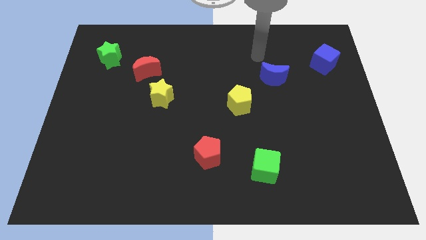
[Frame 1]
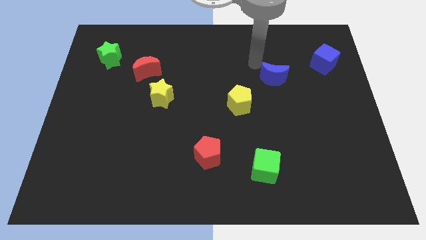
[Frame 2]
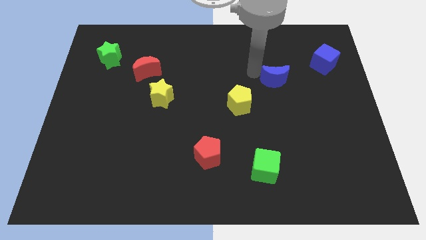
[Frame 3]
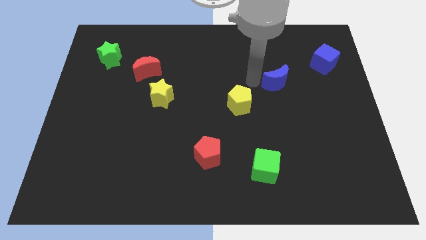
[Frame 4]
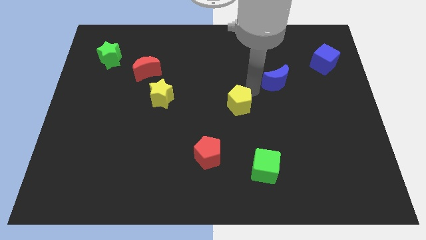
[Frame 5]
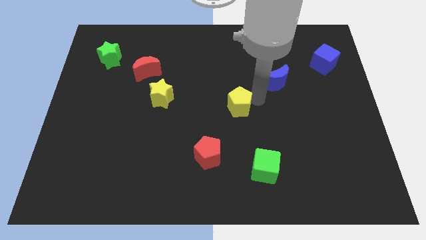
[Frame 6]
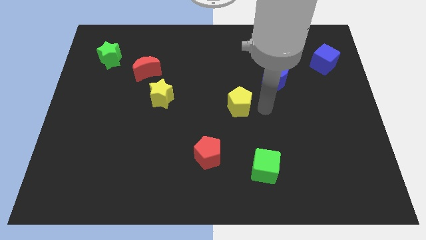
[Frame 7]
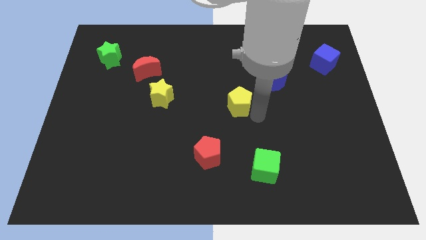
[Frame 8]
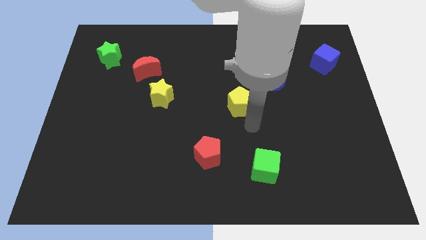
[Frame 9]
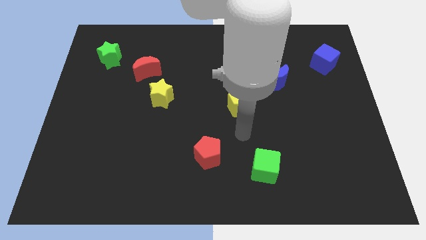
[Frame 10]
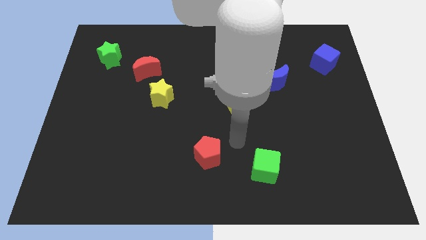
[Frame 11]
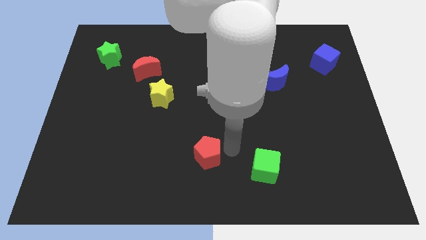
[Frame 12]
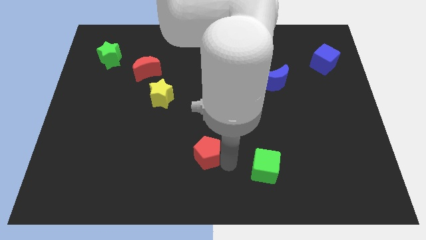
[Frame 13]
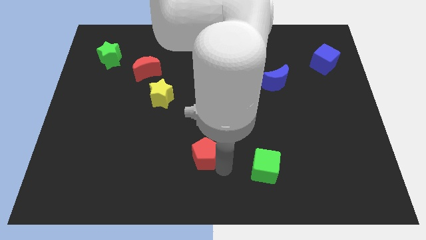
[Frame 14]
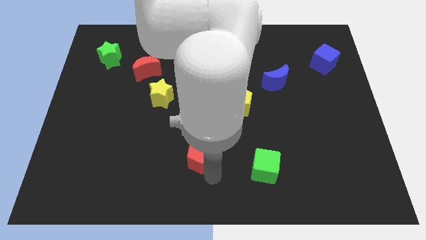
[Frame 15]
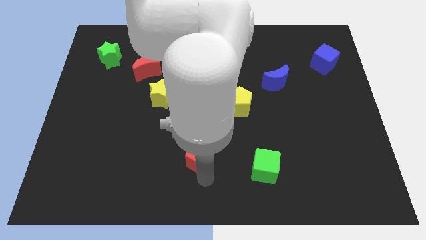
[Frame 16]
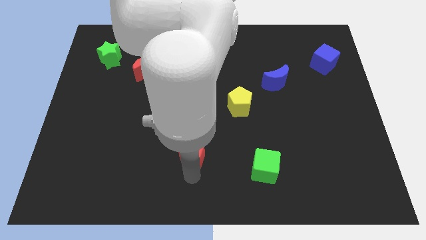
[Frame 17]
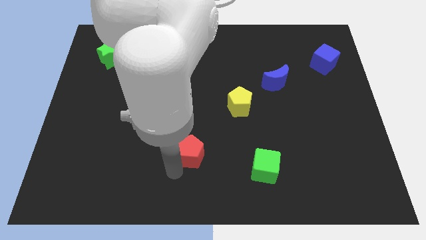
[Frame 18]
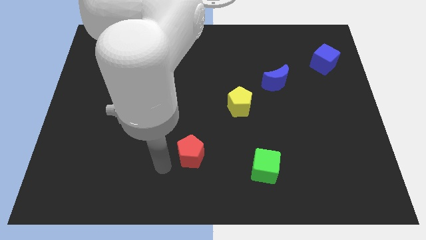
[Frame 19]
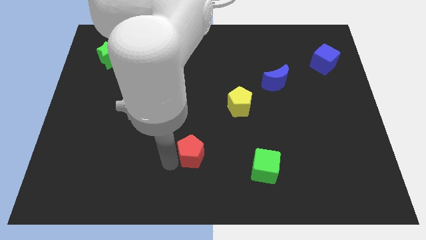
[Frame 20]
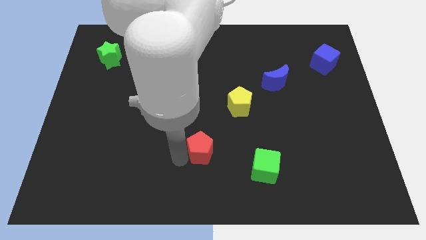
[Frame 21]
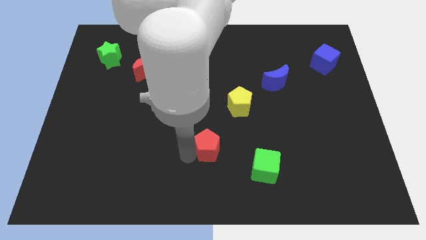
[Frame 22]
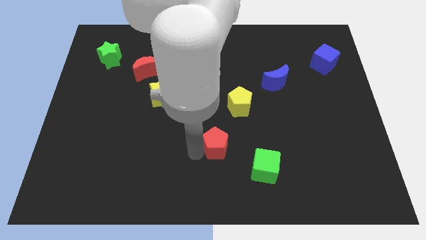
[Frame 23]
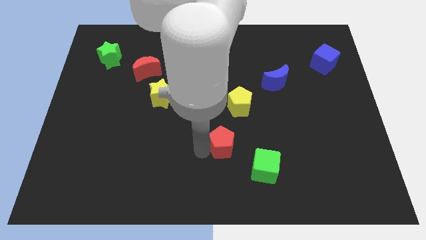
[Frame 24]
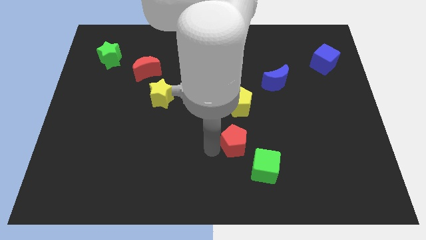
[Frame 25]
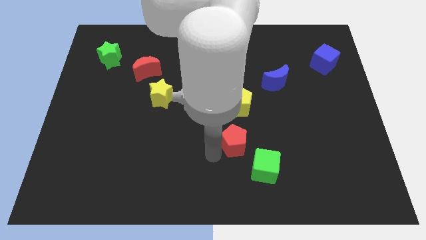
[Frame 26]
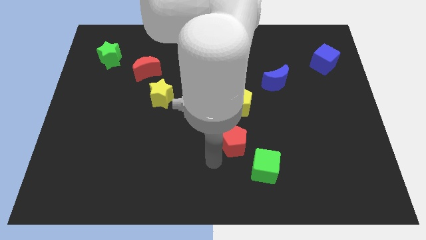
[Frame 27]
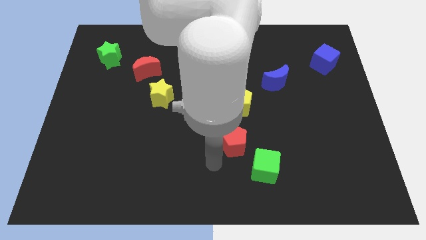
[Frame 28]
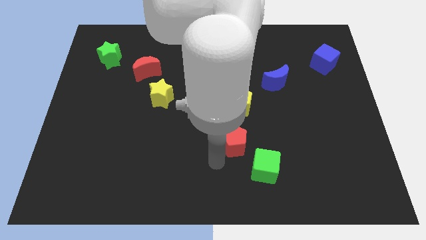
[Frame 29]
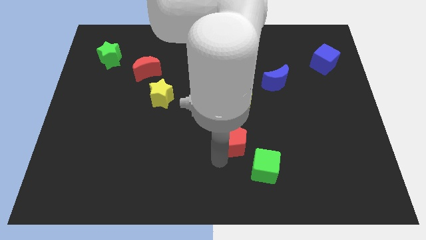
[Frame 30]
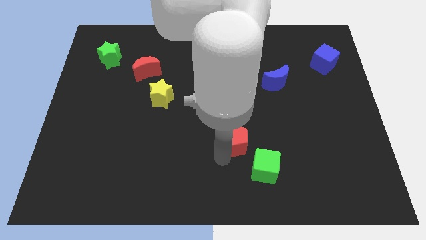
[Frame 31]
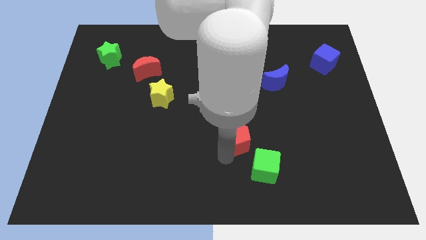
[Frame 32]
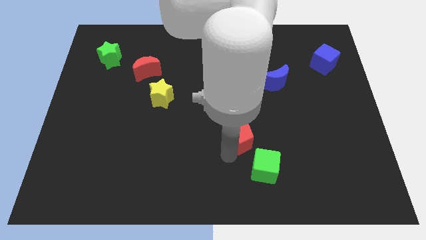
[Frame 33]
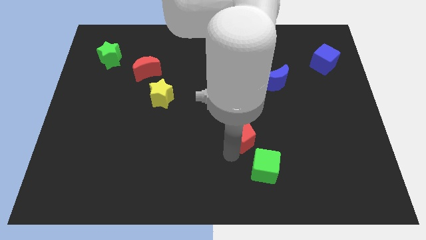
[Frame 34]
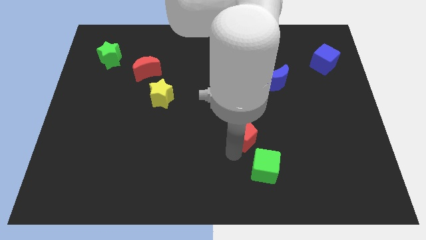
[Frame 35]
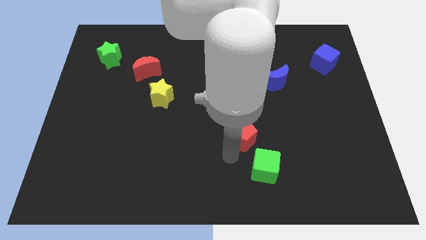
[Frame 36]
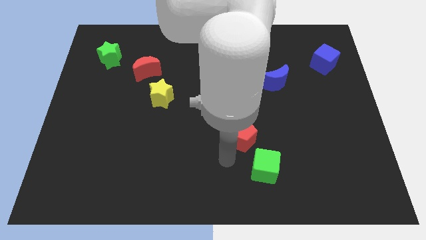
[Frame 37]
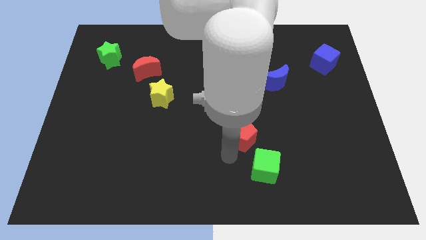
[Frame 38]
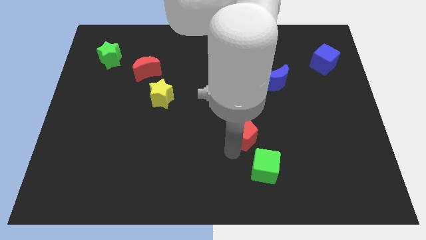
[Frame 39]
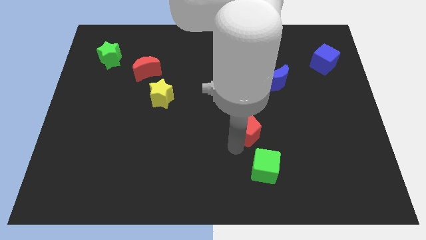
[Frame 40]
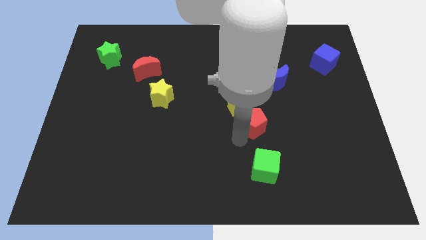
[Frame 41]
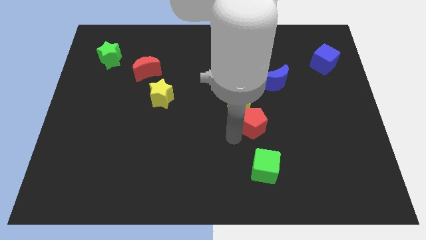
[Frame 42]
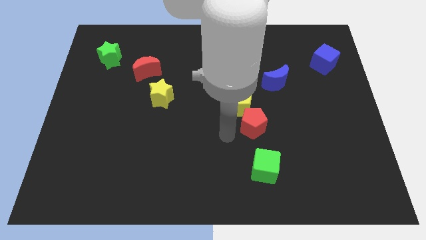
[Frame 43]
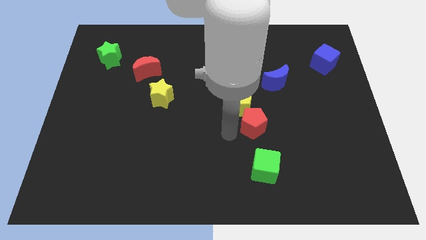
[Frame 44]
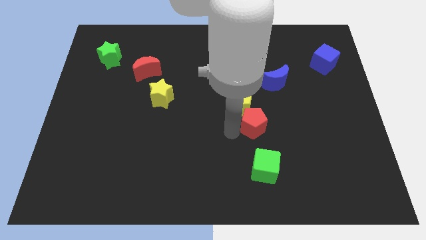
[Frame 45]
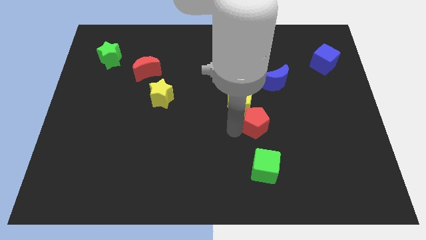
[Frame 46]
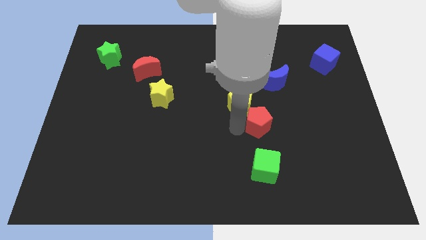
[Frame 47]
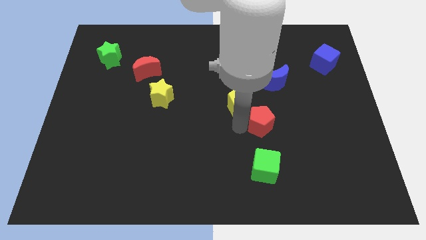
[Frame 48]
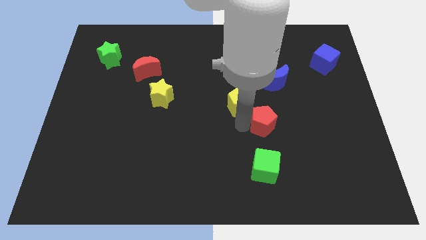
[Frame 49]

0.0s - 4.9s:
move the red pentagon to the bottom of the blue moon

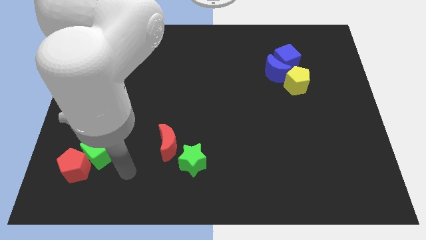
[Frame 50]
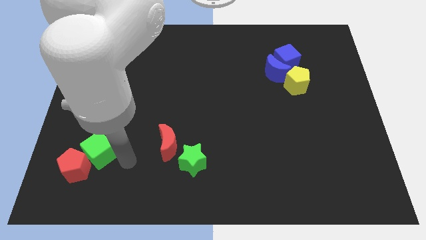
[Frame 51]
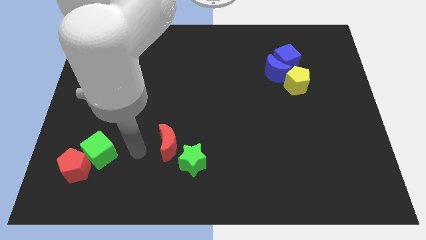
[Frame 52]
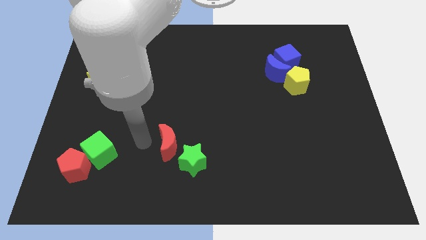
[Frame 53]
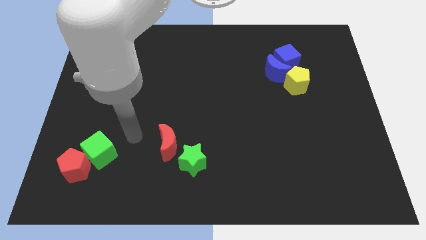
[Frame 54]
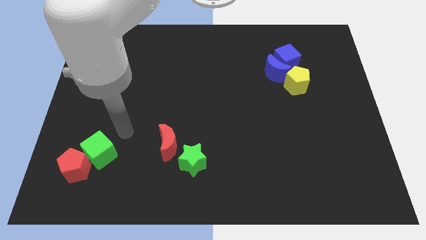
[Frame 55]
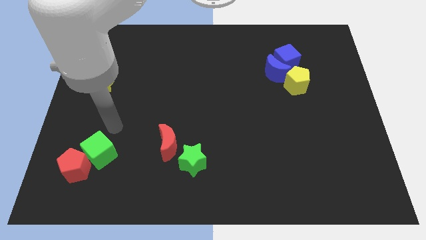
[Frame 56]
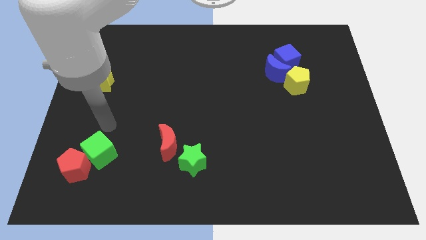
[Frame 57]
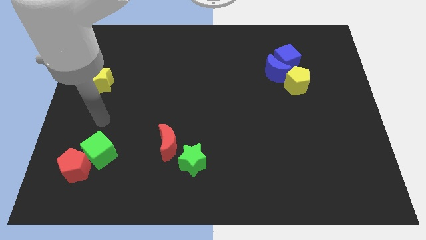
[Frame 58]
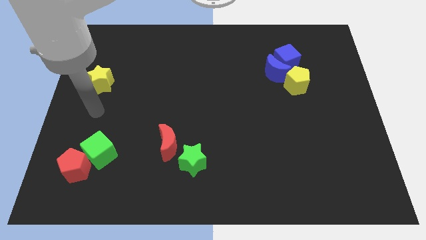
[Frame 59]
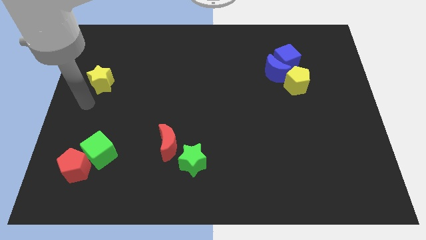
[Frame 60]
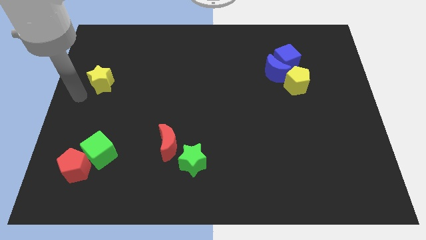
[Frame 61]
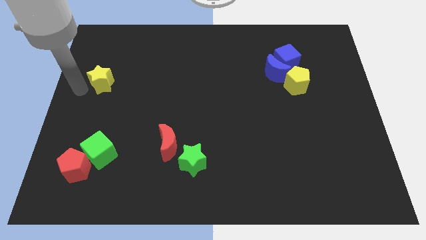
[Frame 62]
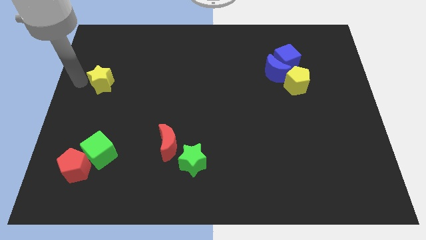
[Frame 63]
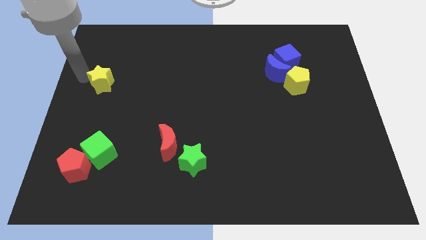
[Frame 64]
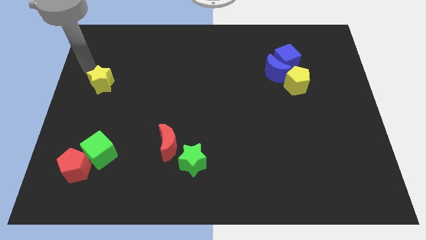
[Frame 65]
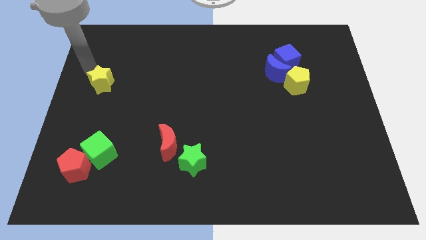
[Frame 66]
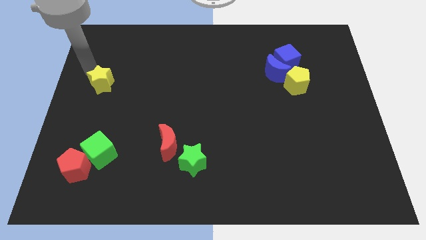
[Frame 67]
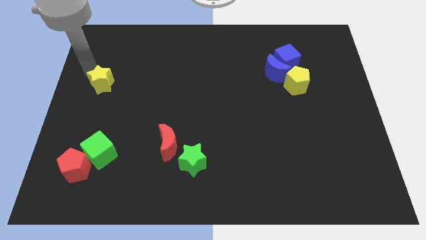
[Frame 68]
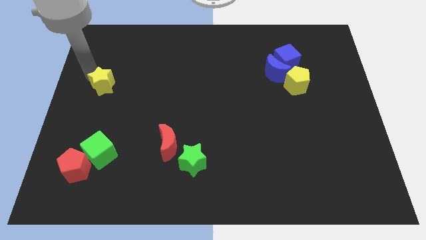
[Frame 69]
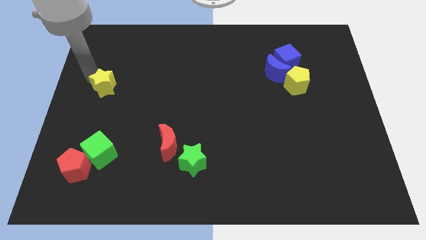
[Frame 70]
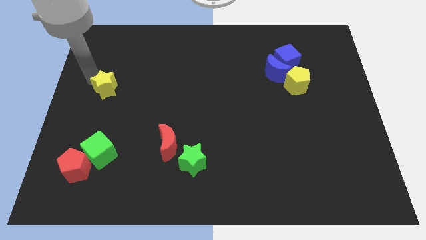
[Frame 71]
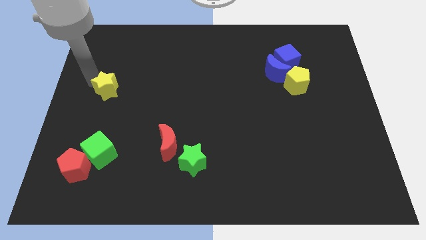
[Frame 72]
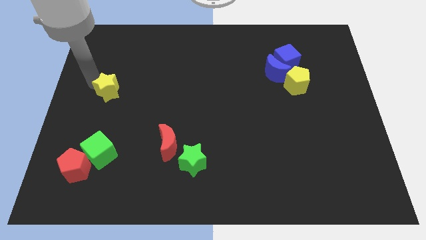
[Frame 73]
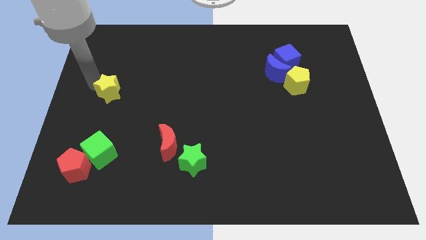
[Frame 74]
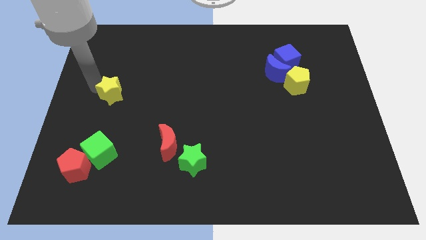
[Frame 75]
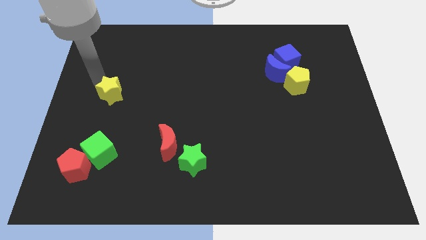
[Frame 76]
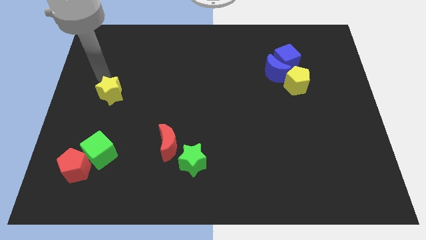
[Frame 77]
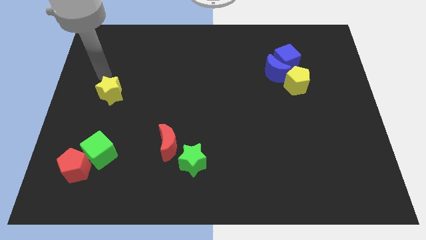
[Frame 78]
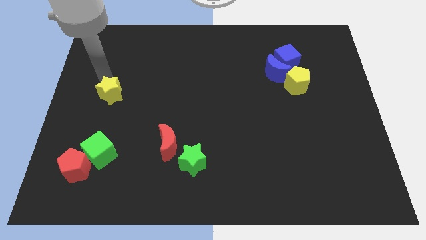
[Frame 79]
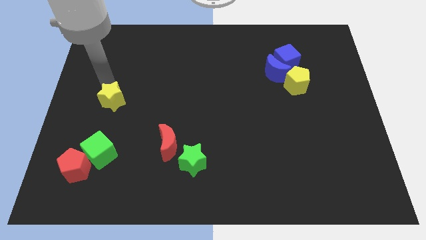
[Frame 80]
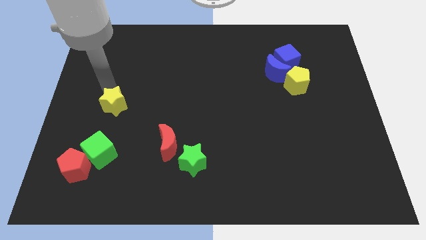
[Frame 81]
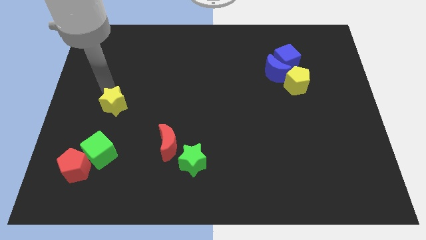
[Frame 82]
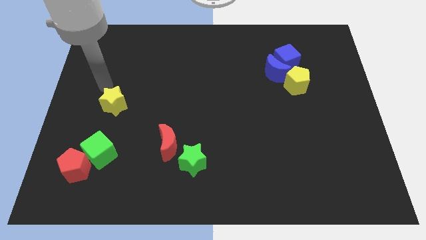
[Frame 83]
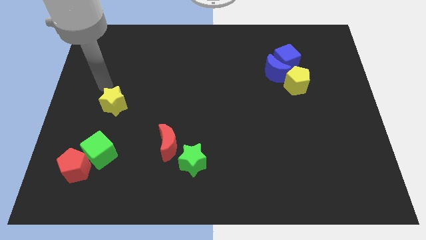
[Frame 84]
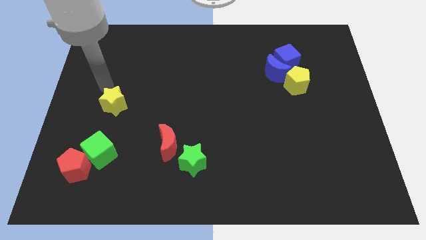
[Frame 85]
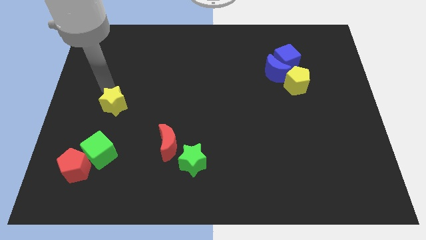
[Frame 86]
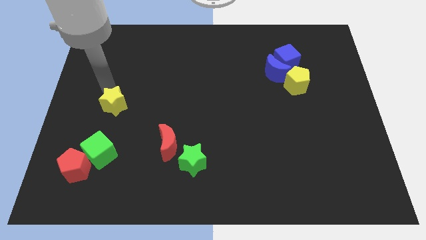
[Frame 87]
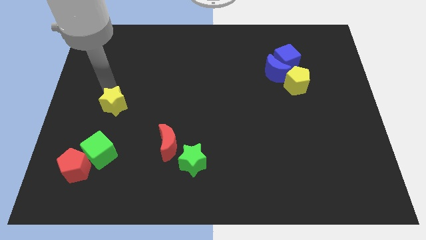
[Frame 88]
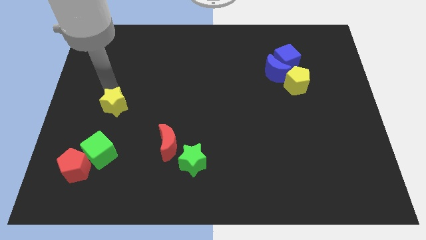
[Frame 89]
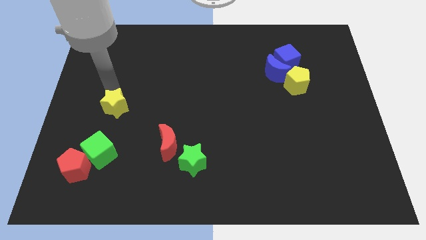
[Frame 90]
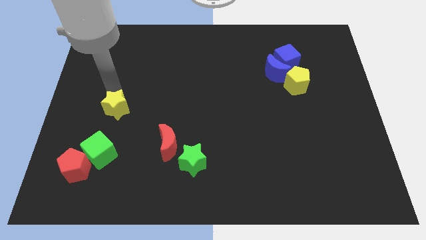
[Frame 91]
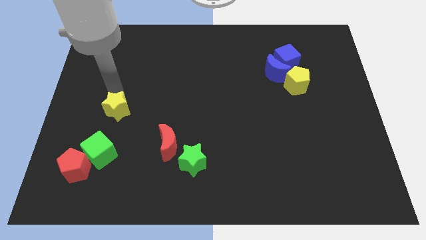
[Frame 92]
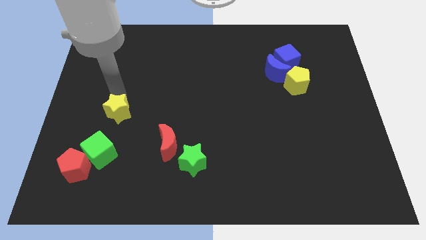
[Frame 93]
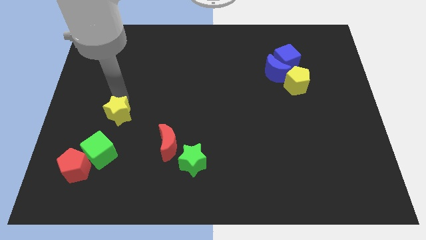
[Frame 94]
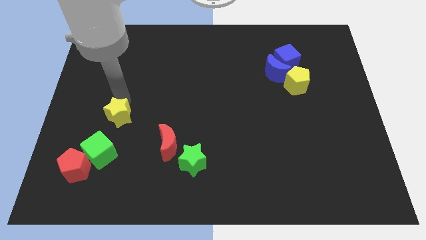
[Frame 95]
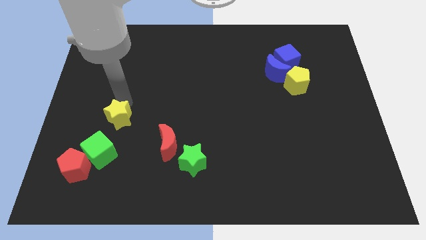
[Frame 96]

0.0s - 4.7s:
slide the yellow star diagonally up and to the right of the green cube
